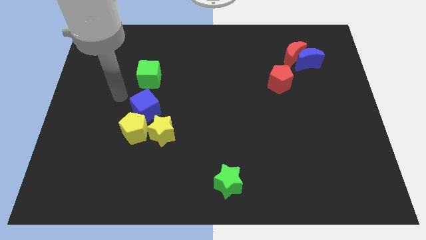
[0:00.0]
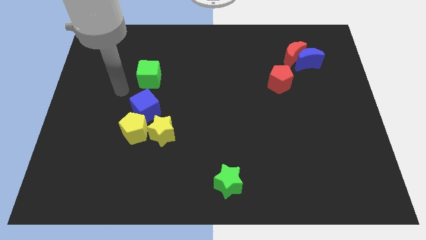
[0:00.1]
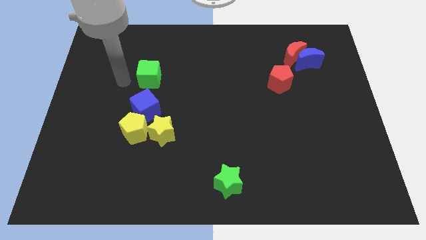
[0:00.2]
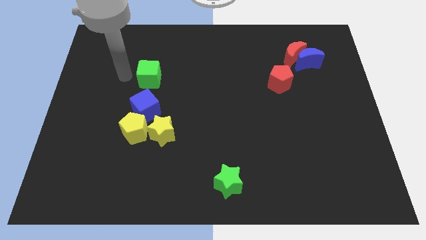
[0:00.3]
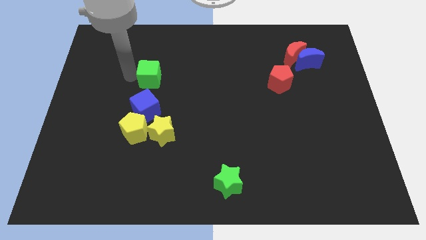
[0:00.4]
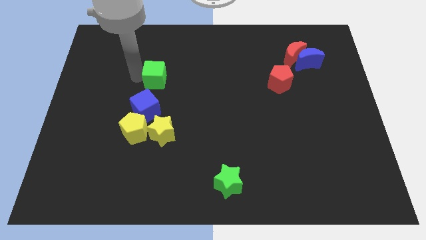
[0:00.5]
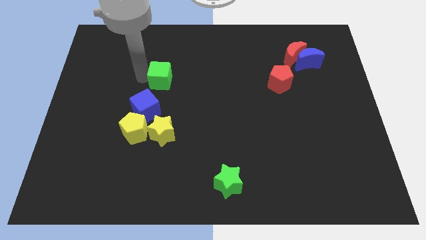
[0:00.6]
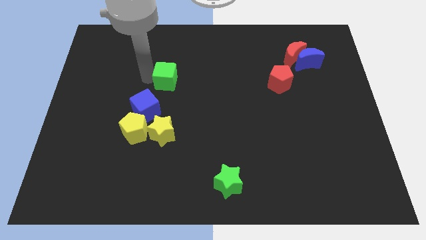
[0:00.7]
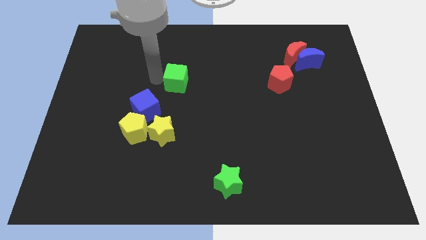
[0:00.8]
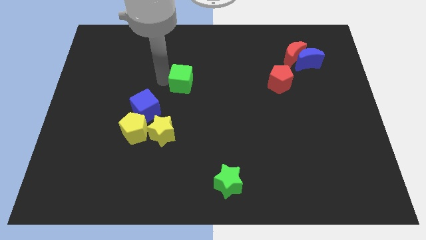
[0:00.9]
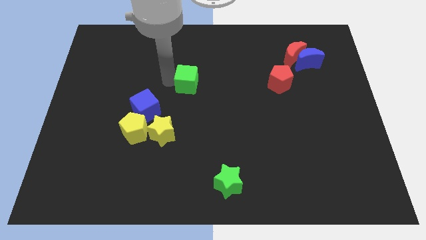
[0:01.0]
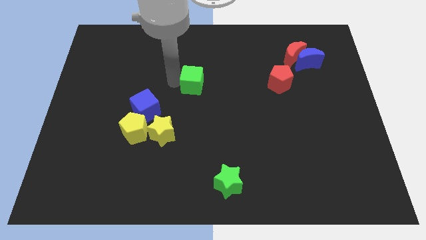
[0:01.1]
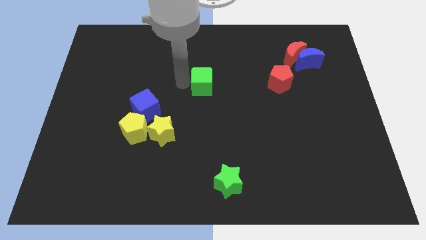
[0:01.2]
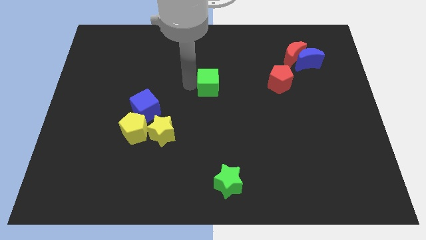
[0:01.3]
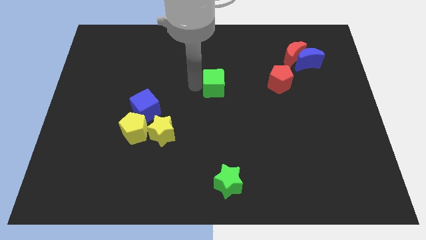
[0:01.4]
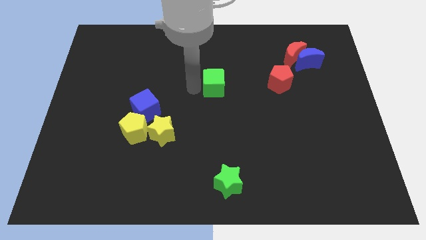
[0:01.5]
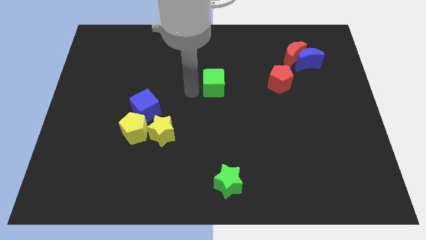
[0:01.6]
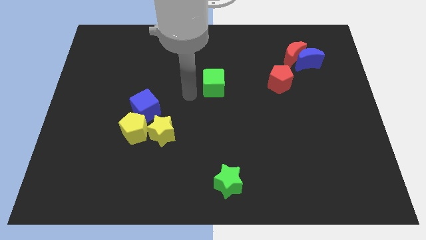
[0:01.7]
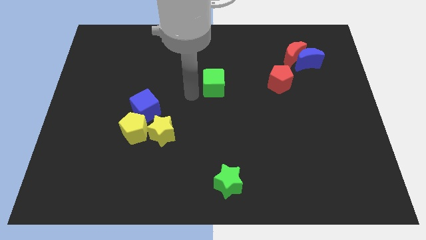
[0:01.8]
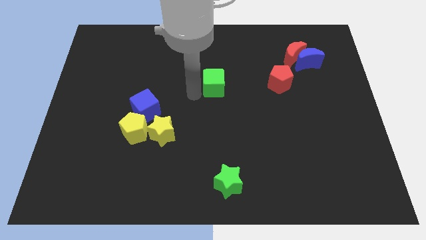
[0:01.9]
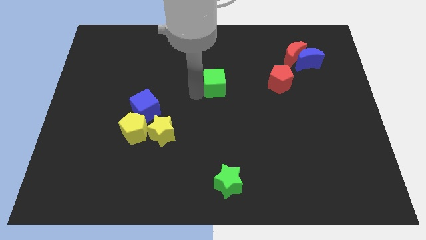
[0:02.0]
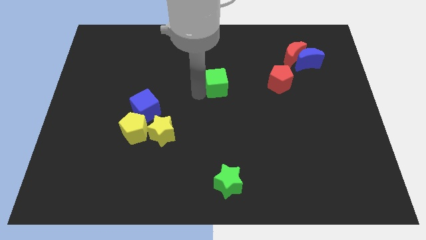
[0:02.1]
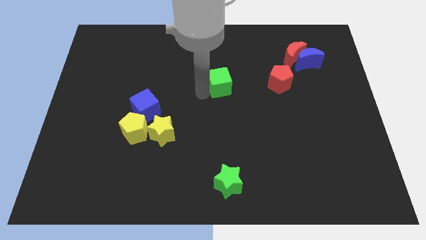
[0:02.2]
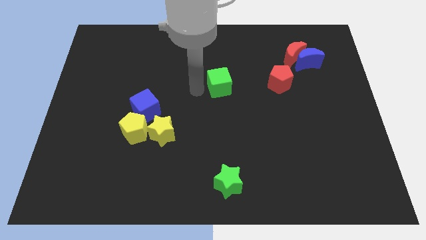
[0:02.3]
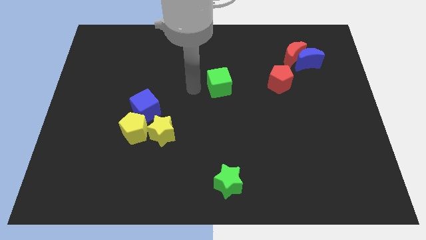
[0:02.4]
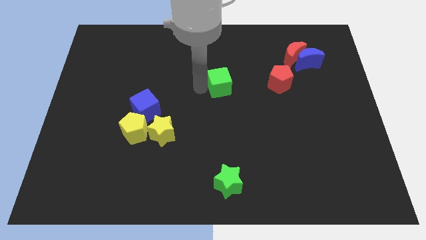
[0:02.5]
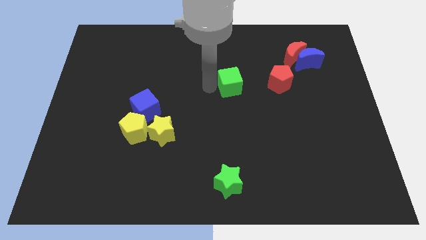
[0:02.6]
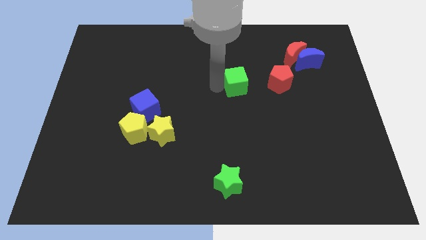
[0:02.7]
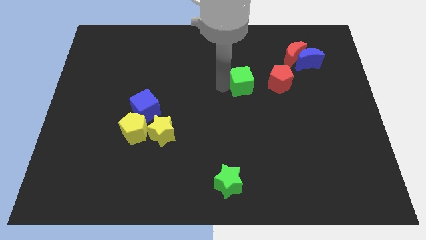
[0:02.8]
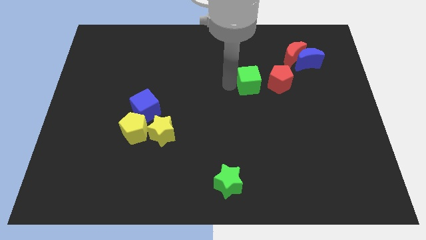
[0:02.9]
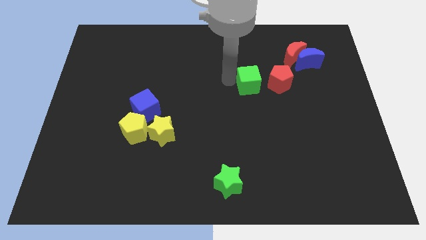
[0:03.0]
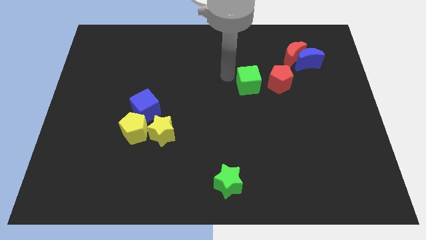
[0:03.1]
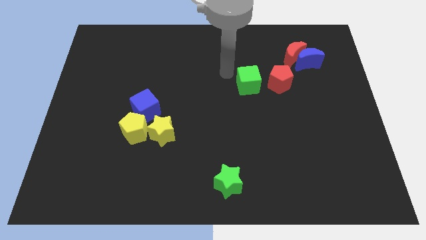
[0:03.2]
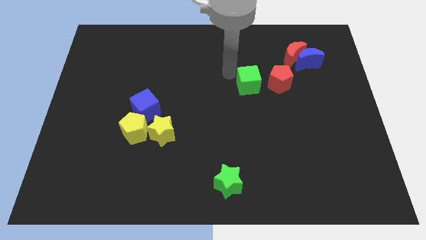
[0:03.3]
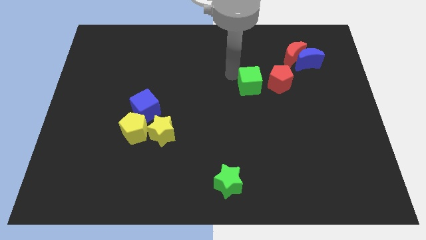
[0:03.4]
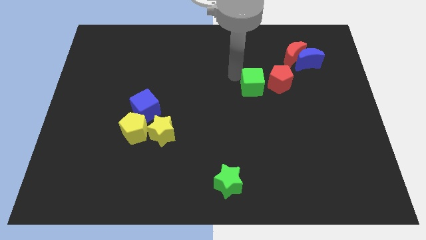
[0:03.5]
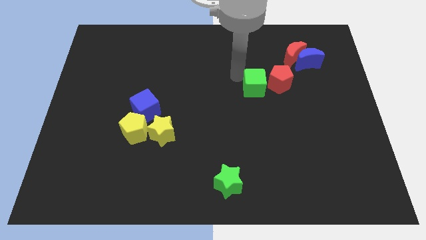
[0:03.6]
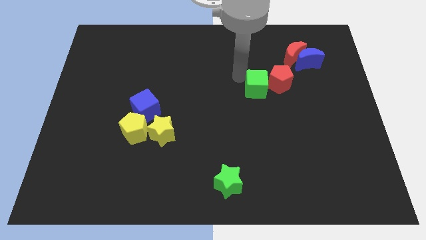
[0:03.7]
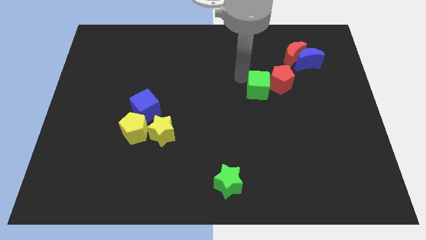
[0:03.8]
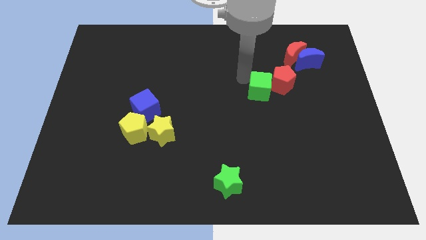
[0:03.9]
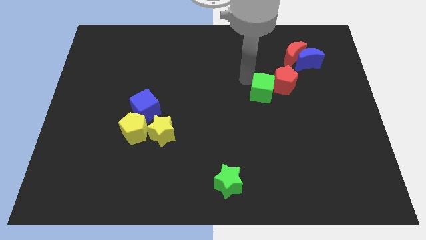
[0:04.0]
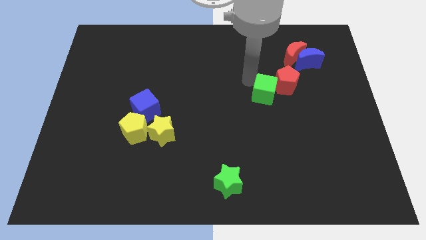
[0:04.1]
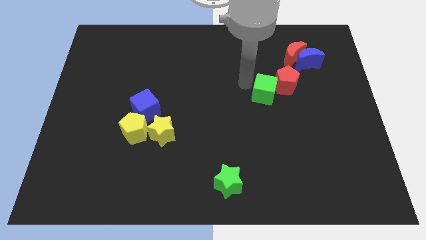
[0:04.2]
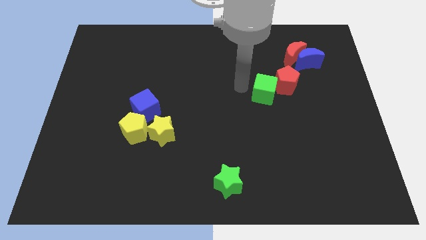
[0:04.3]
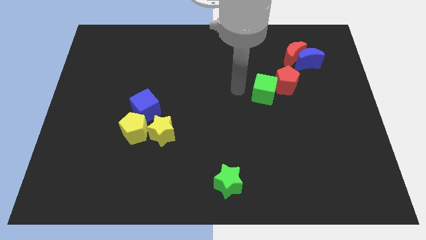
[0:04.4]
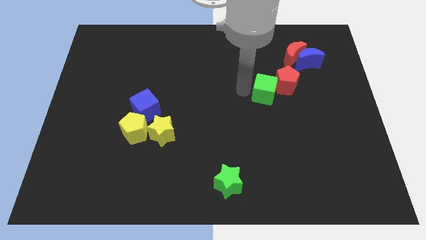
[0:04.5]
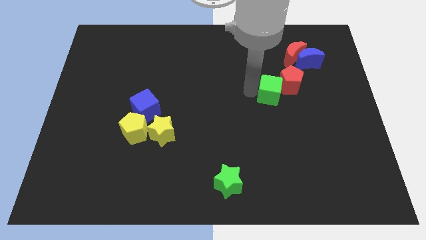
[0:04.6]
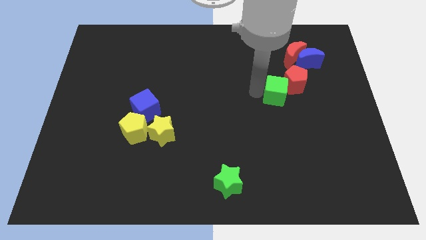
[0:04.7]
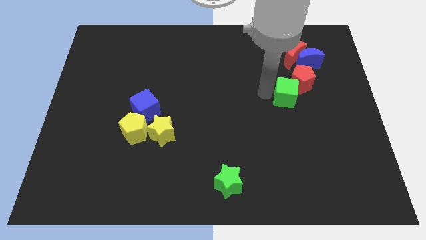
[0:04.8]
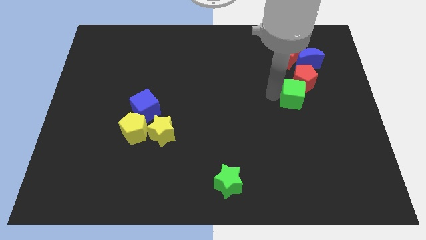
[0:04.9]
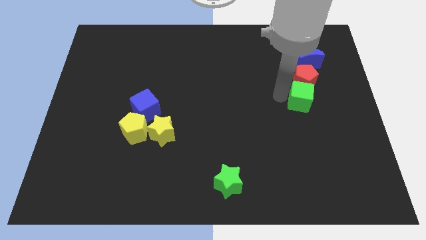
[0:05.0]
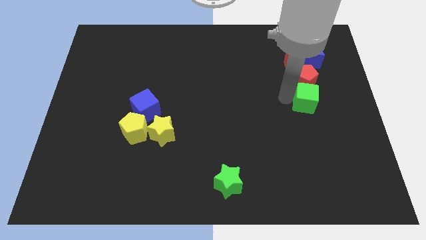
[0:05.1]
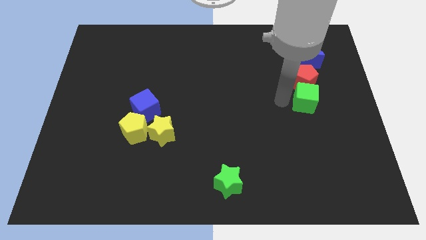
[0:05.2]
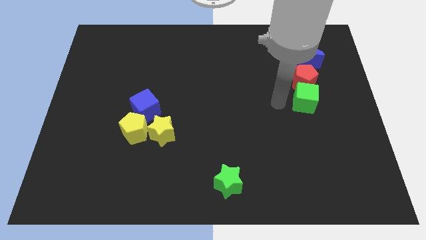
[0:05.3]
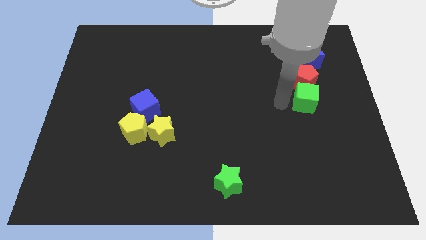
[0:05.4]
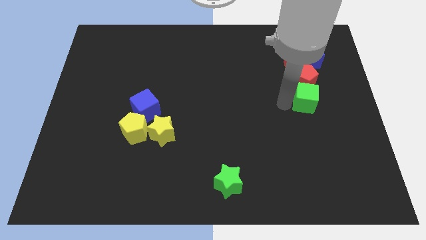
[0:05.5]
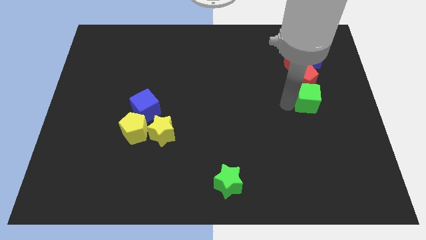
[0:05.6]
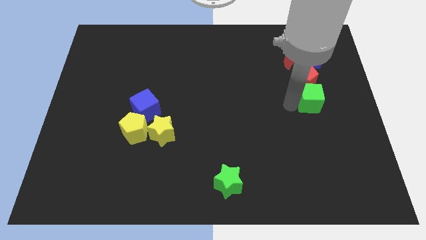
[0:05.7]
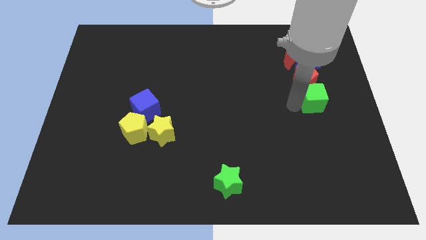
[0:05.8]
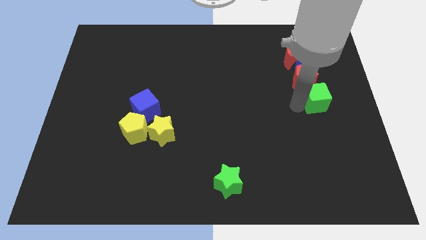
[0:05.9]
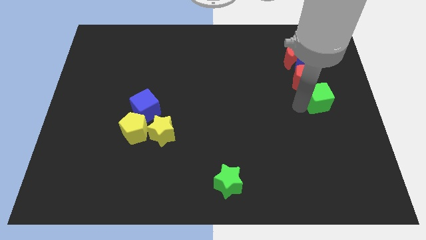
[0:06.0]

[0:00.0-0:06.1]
put the green cube to the right side
